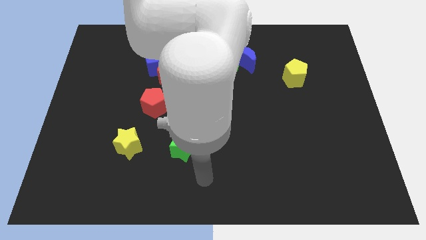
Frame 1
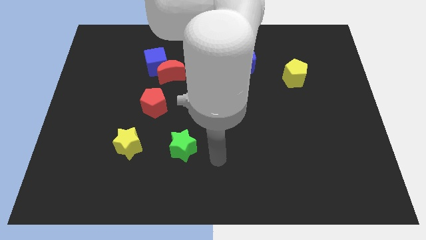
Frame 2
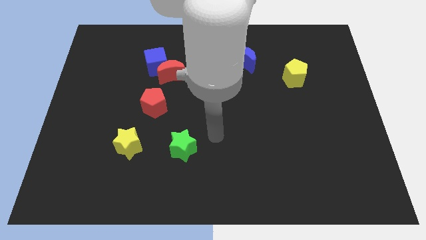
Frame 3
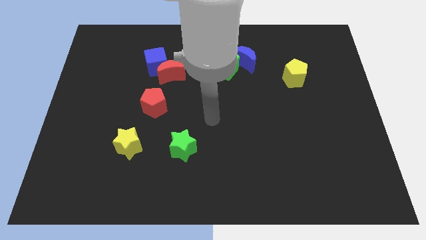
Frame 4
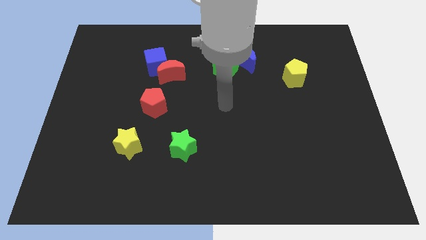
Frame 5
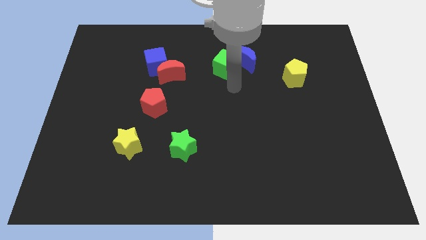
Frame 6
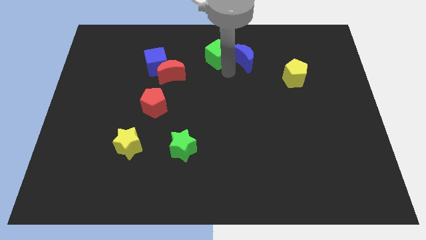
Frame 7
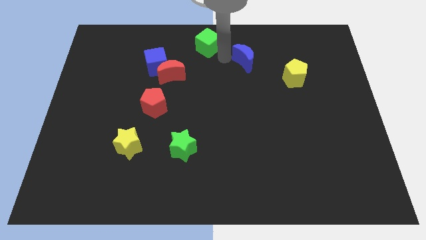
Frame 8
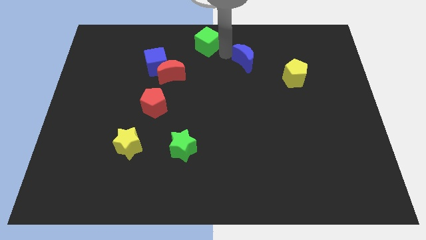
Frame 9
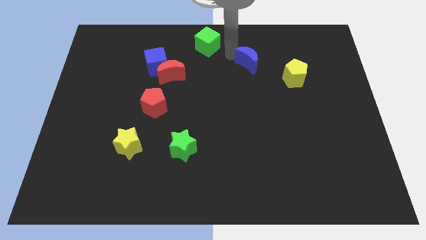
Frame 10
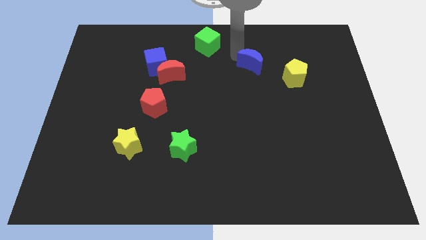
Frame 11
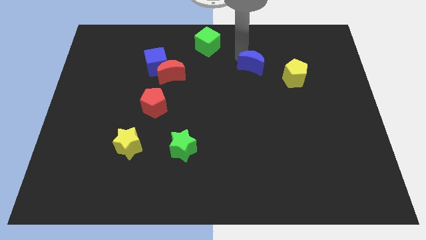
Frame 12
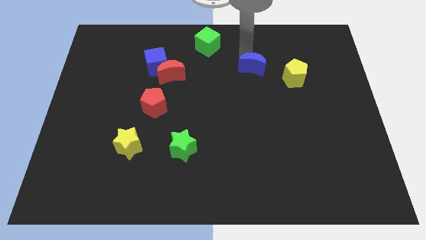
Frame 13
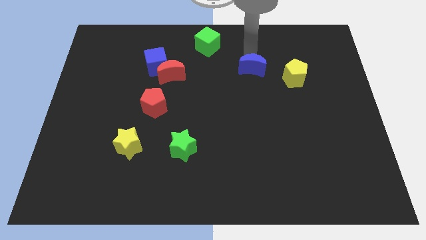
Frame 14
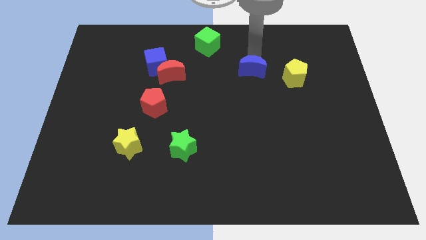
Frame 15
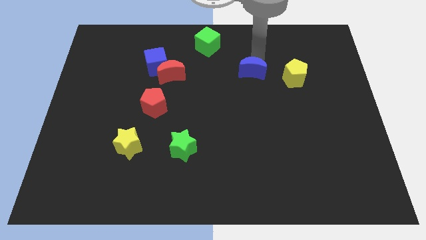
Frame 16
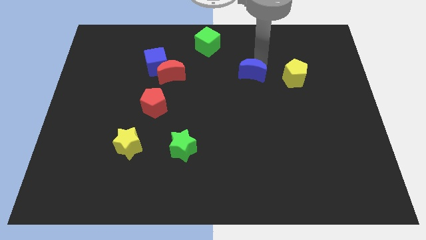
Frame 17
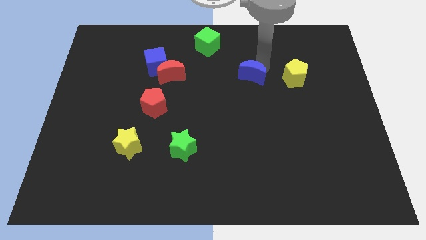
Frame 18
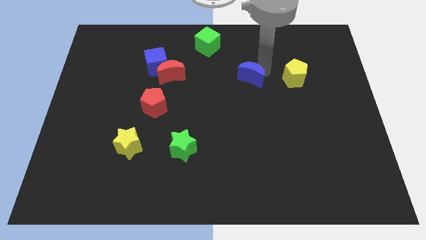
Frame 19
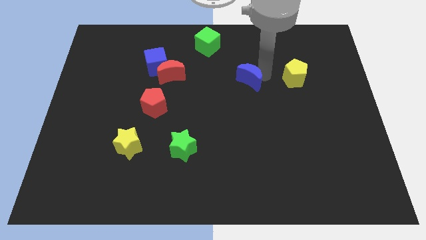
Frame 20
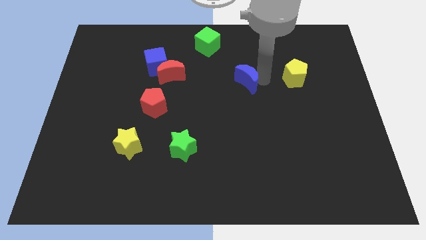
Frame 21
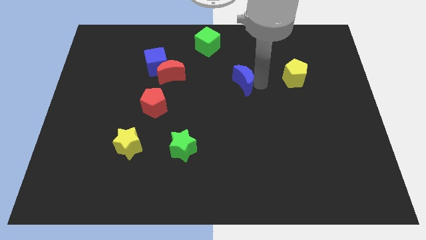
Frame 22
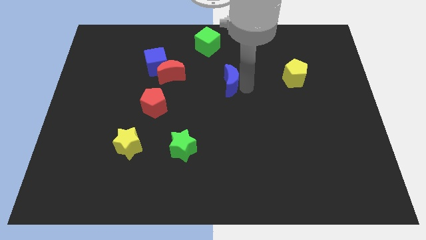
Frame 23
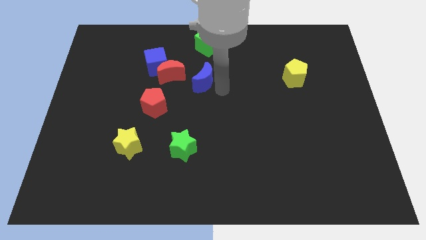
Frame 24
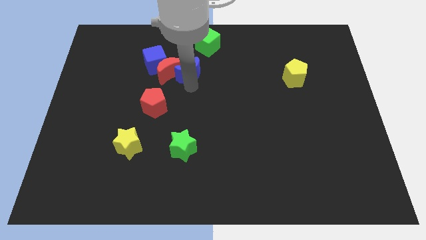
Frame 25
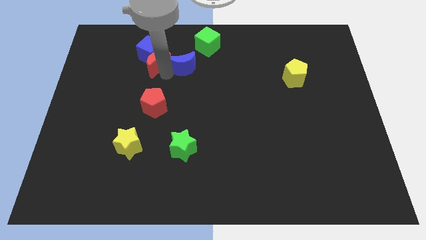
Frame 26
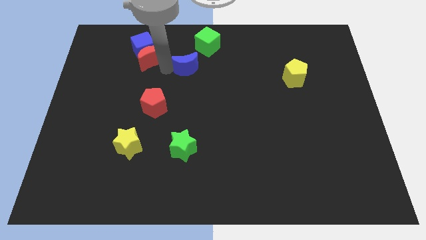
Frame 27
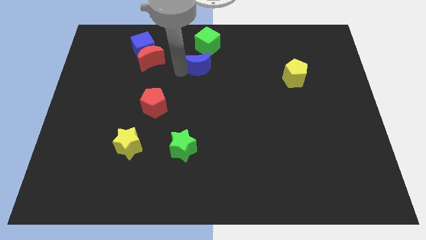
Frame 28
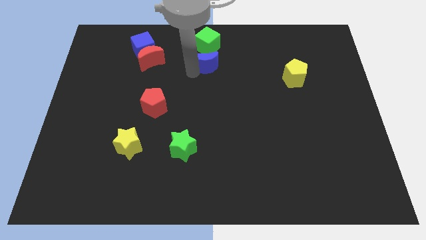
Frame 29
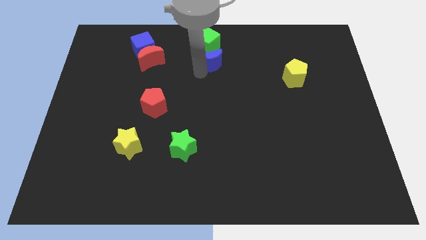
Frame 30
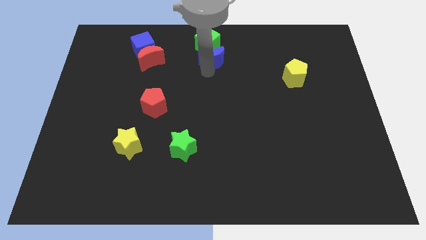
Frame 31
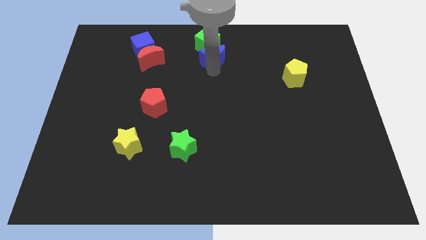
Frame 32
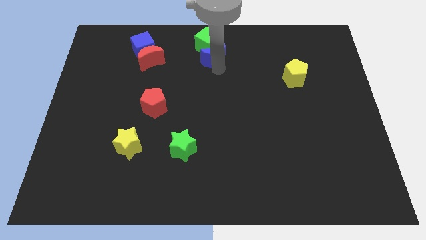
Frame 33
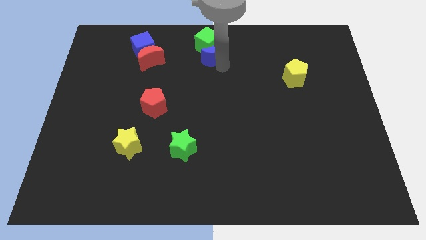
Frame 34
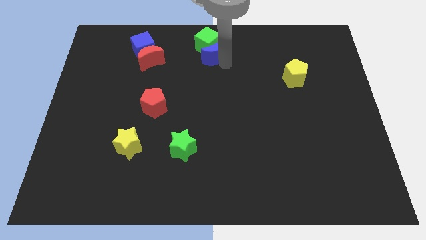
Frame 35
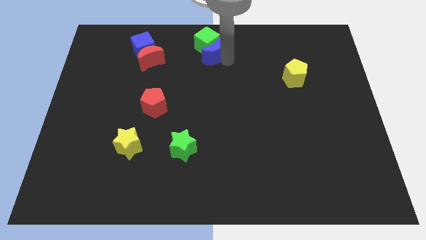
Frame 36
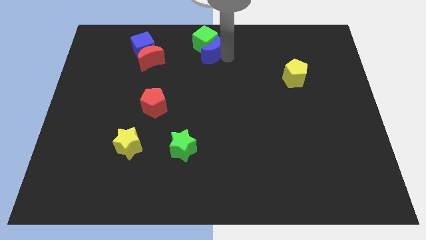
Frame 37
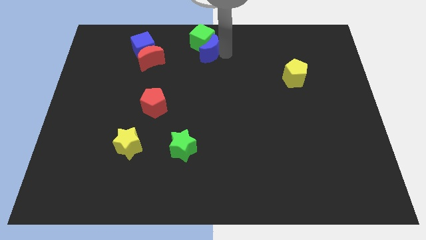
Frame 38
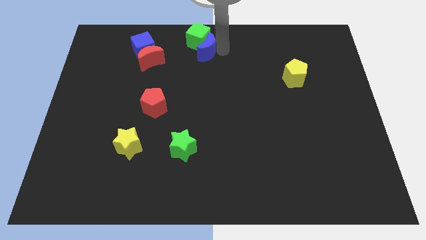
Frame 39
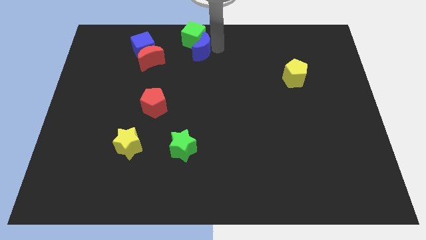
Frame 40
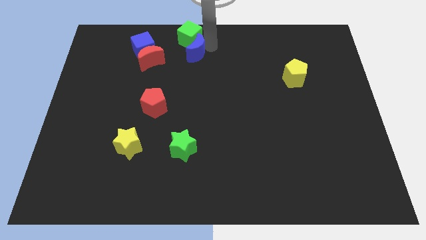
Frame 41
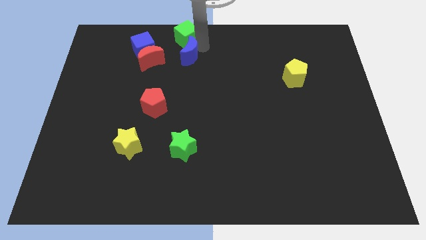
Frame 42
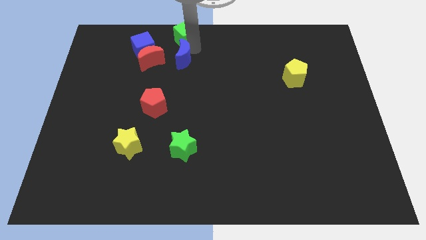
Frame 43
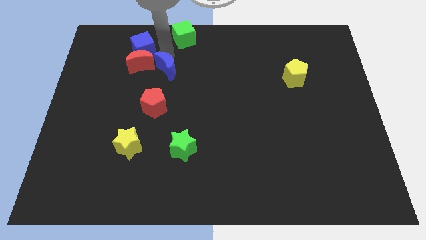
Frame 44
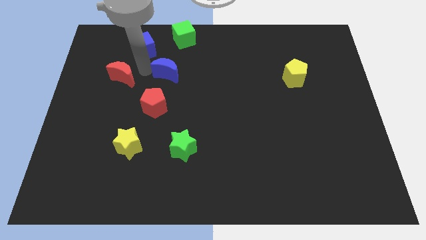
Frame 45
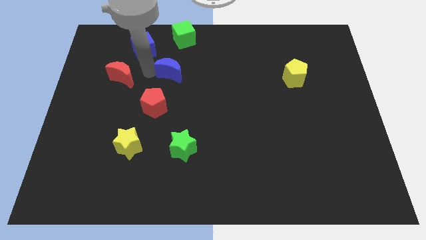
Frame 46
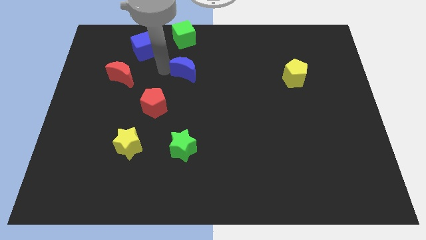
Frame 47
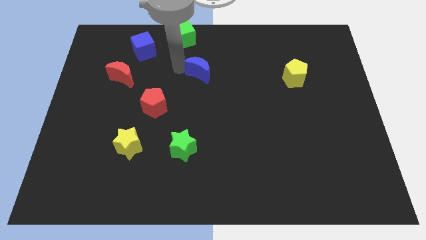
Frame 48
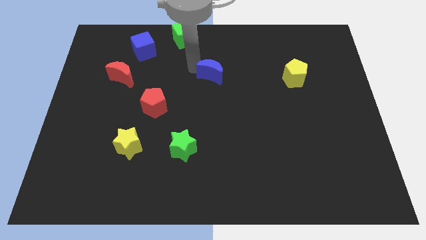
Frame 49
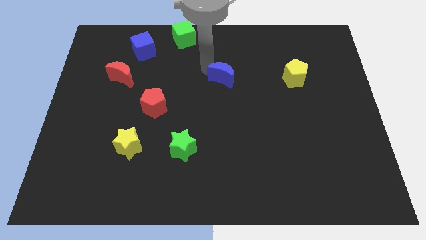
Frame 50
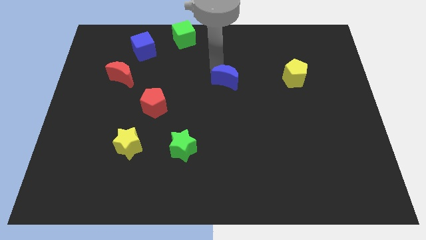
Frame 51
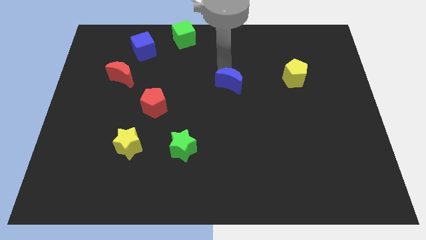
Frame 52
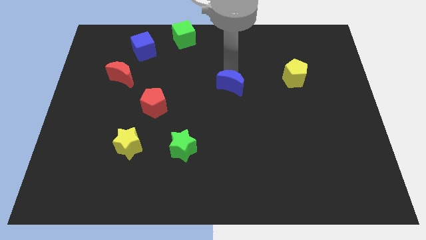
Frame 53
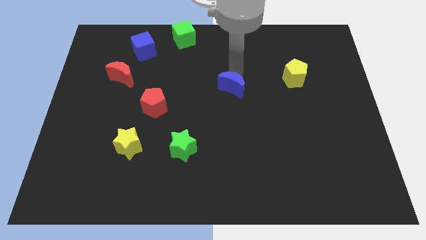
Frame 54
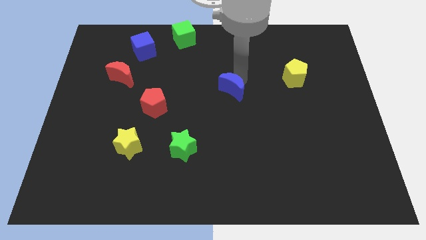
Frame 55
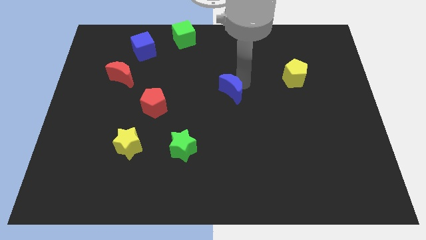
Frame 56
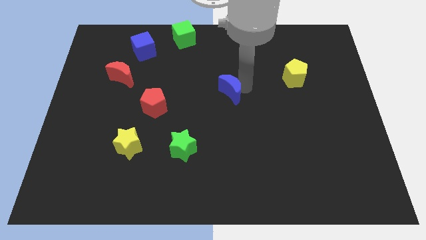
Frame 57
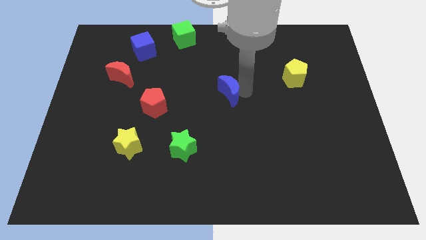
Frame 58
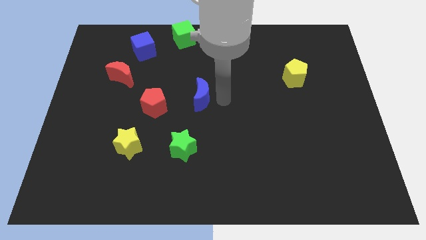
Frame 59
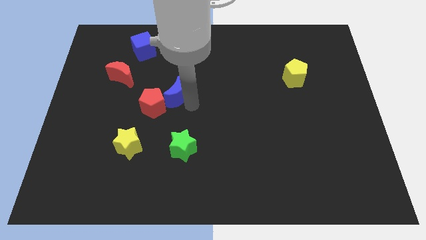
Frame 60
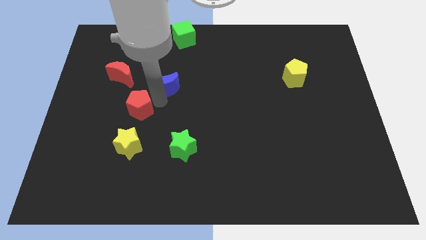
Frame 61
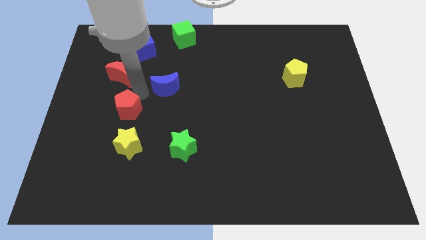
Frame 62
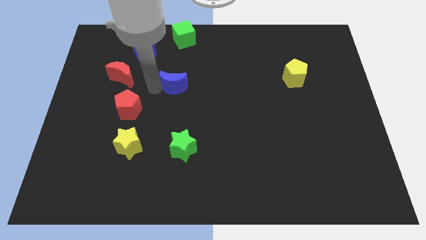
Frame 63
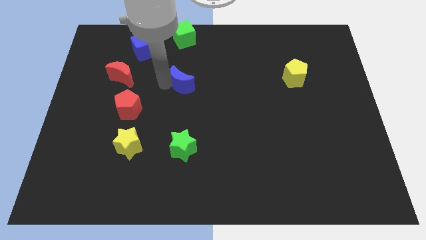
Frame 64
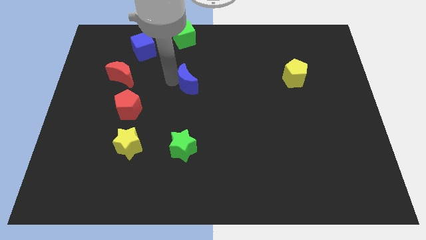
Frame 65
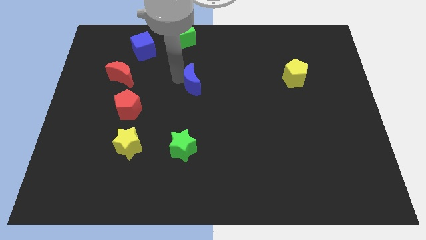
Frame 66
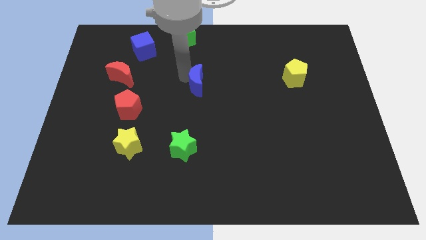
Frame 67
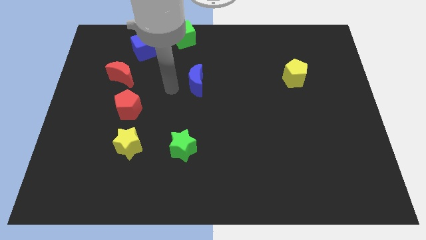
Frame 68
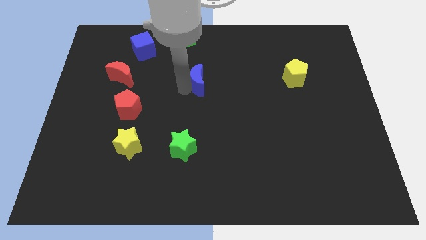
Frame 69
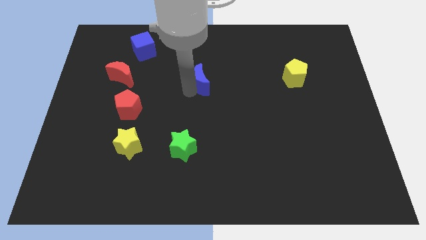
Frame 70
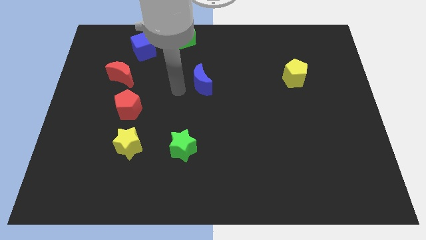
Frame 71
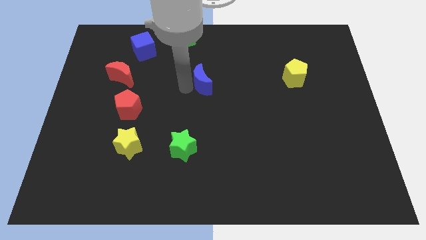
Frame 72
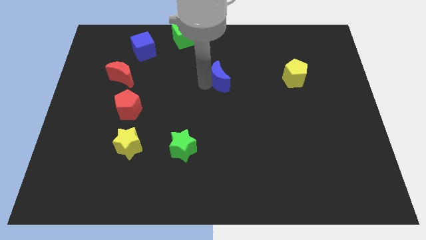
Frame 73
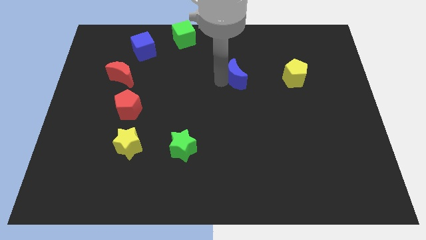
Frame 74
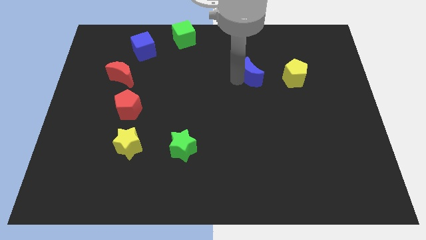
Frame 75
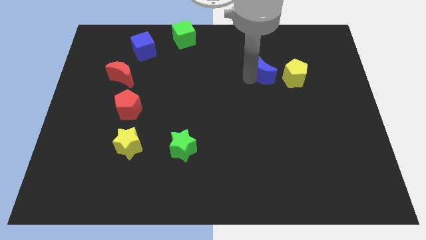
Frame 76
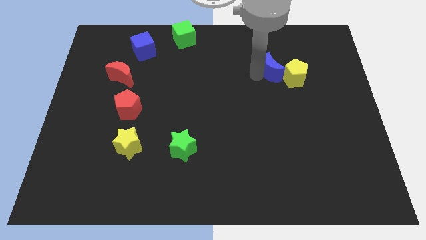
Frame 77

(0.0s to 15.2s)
move the blue moon close to the yellow pentagon
